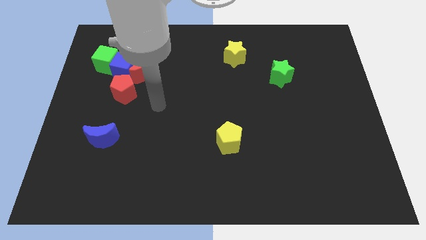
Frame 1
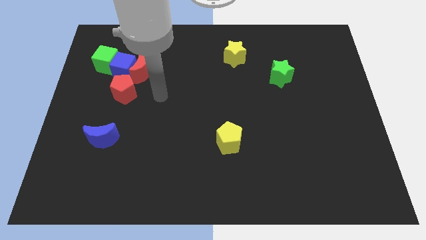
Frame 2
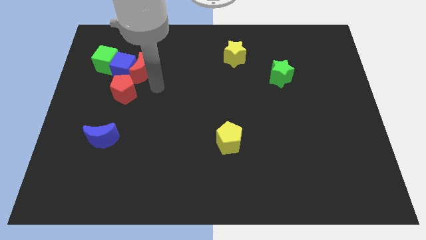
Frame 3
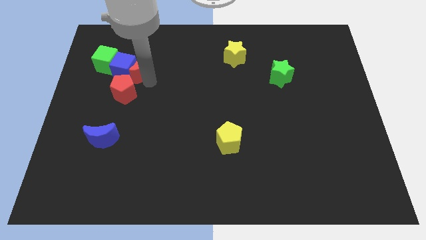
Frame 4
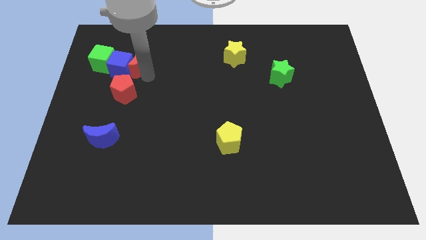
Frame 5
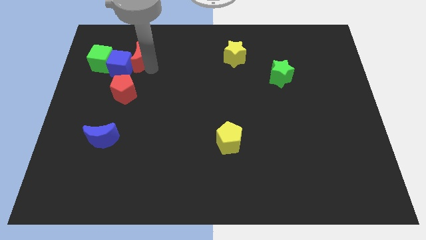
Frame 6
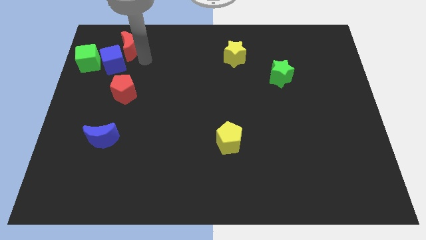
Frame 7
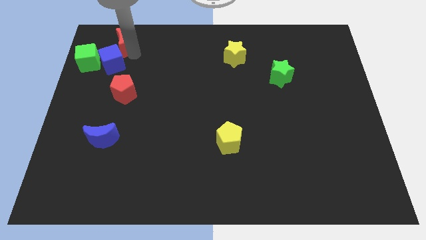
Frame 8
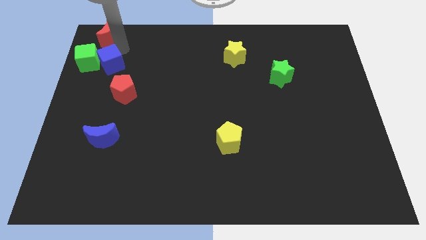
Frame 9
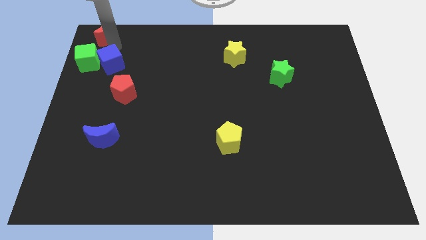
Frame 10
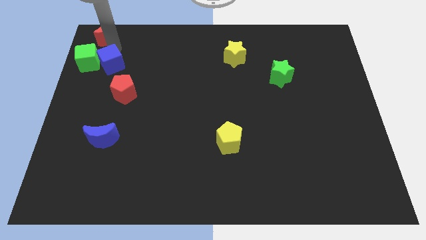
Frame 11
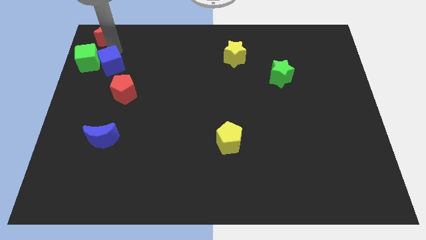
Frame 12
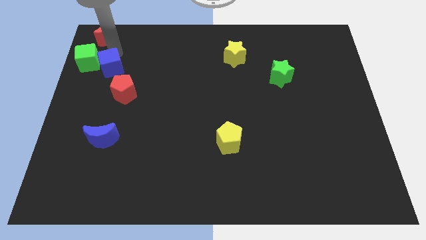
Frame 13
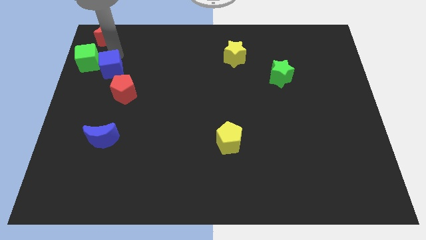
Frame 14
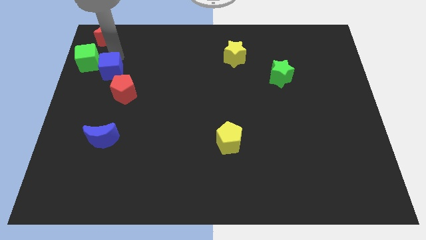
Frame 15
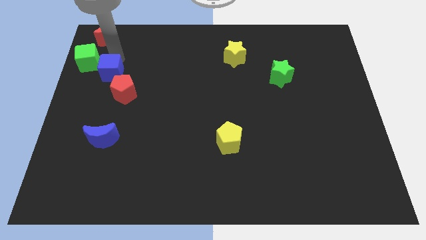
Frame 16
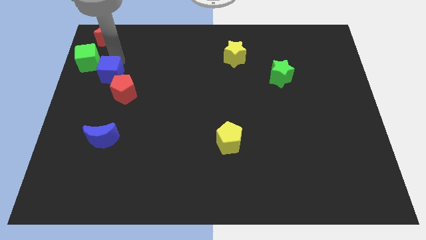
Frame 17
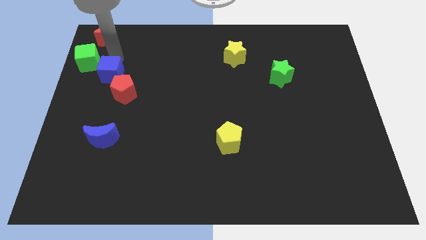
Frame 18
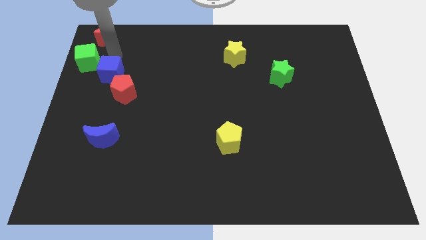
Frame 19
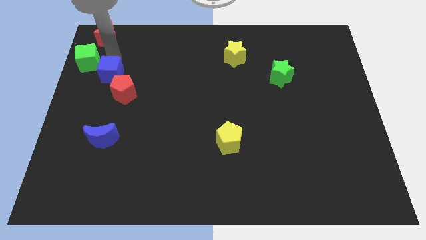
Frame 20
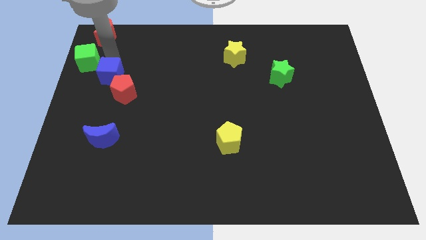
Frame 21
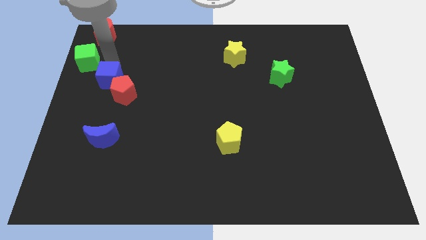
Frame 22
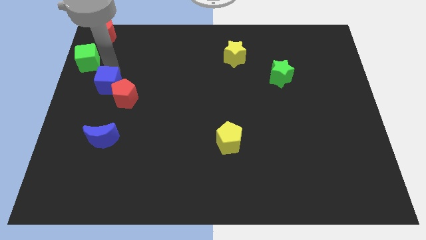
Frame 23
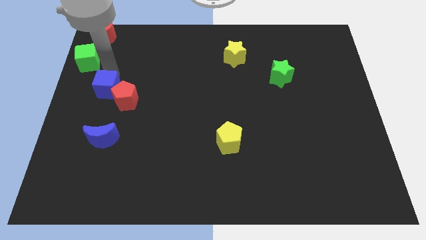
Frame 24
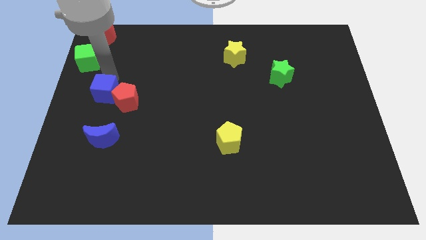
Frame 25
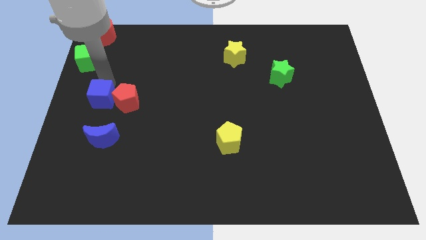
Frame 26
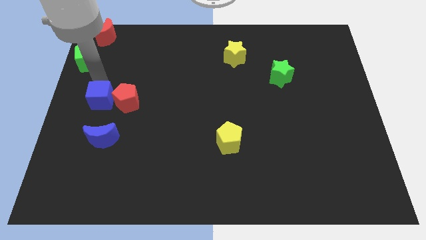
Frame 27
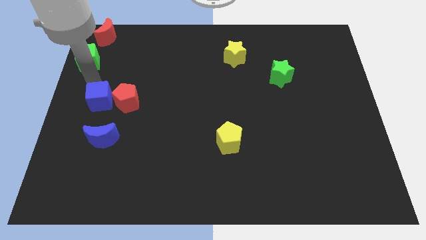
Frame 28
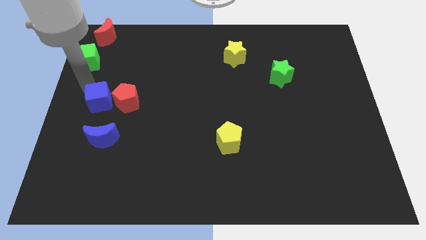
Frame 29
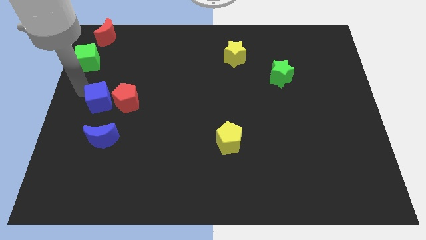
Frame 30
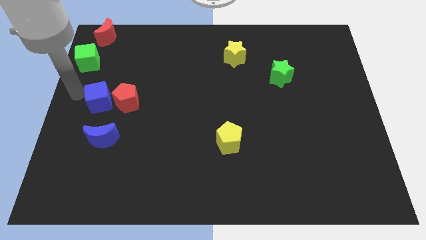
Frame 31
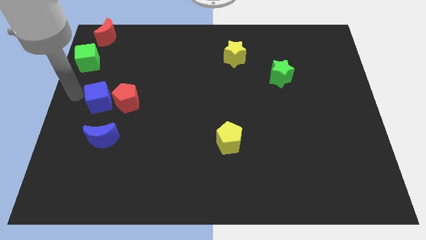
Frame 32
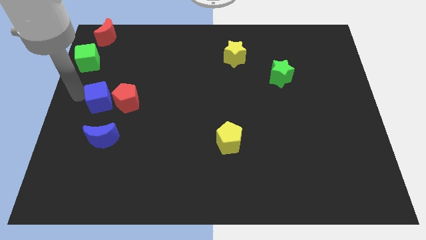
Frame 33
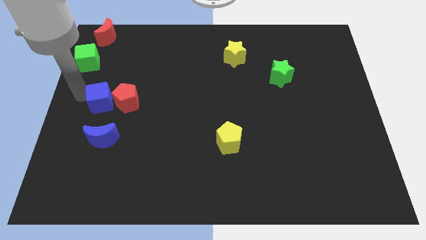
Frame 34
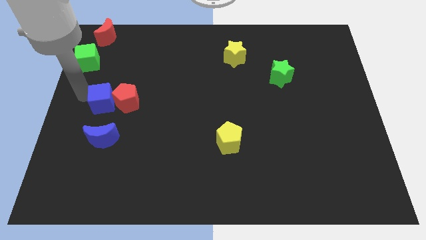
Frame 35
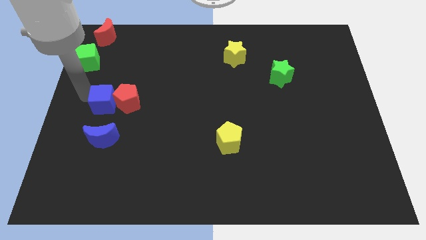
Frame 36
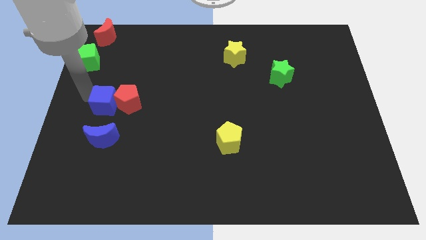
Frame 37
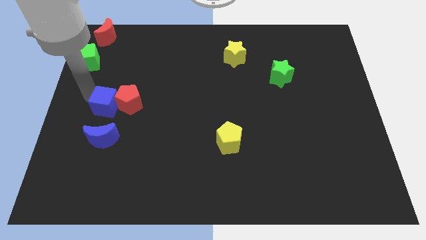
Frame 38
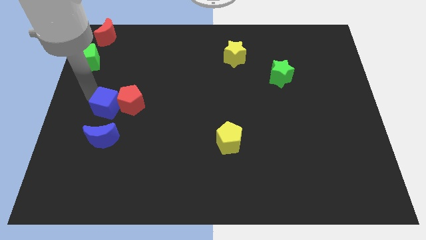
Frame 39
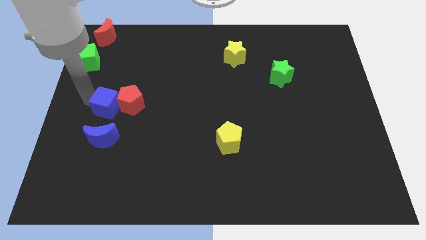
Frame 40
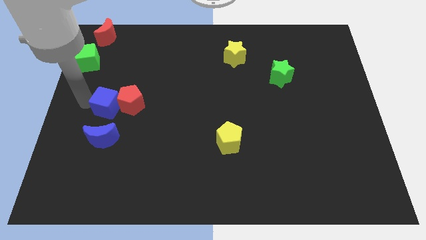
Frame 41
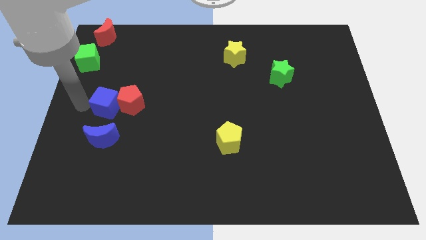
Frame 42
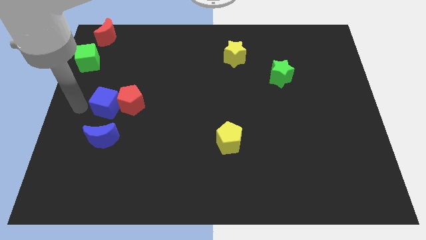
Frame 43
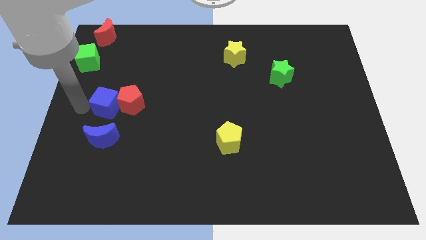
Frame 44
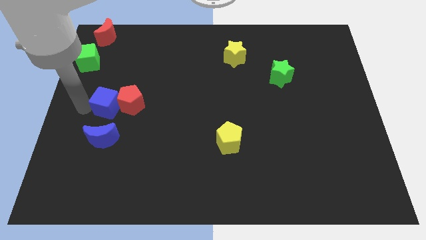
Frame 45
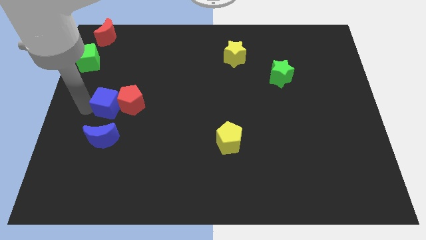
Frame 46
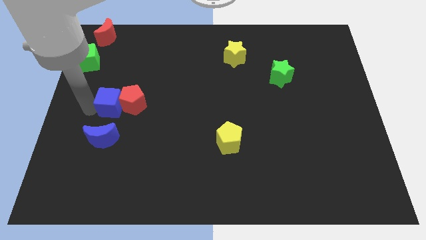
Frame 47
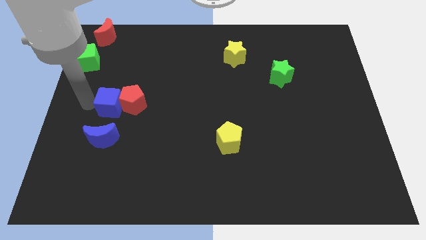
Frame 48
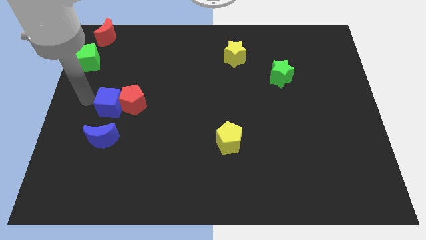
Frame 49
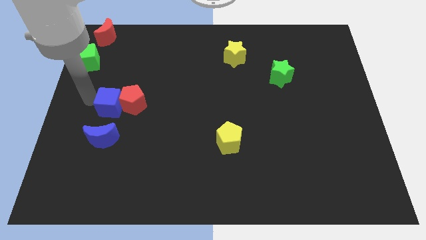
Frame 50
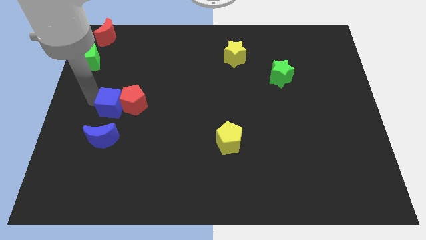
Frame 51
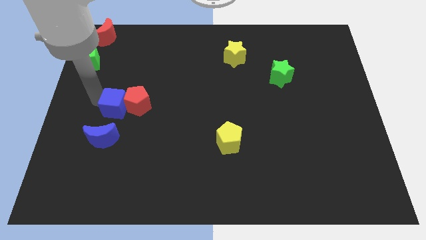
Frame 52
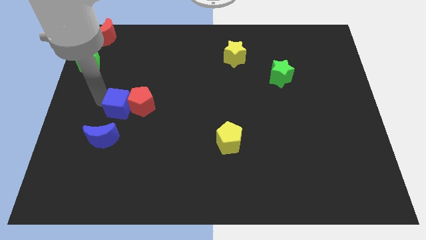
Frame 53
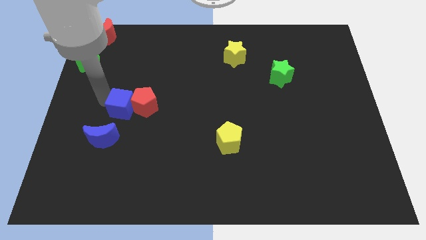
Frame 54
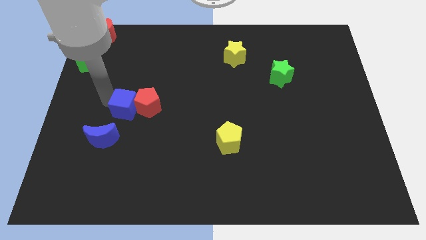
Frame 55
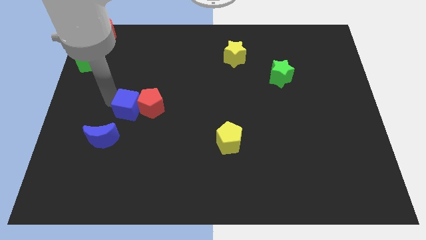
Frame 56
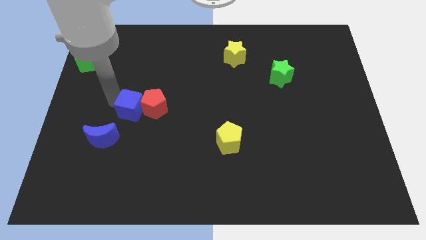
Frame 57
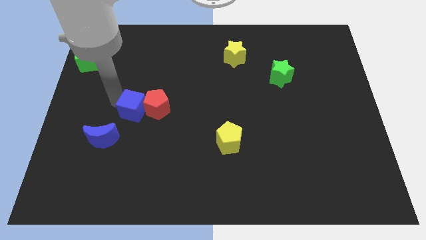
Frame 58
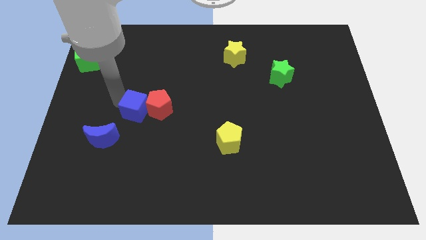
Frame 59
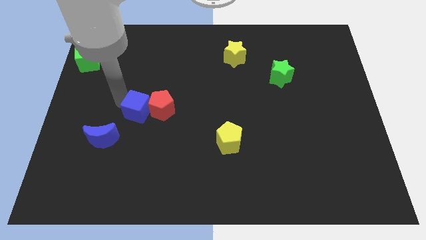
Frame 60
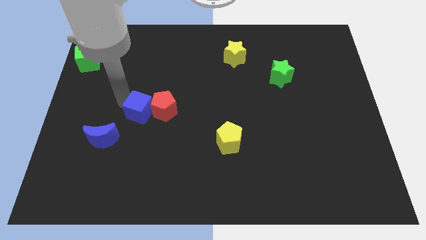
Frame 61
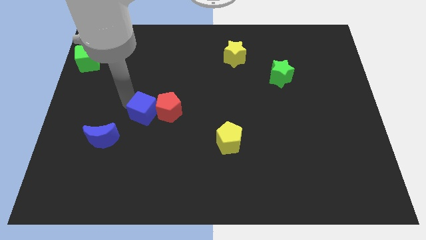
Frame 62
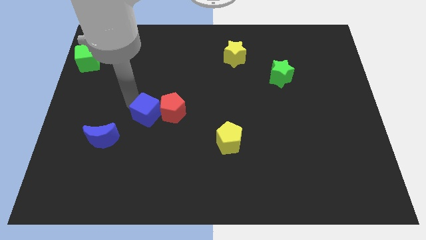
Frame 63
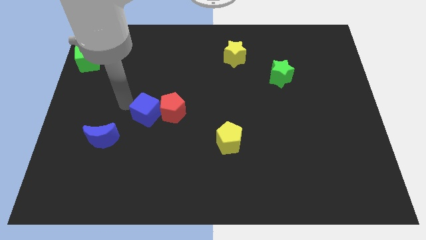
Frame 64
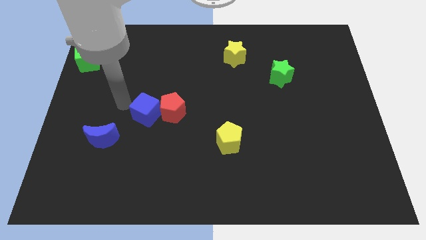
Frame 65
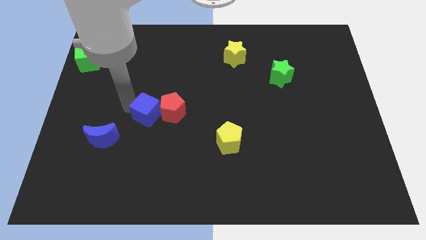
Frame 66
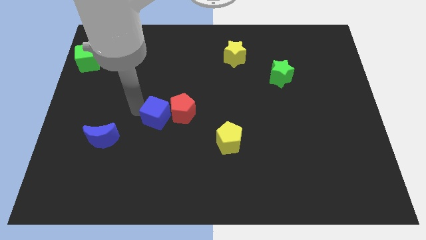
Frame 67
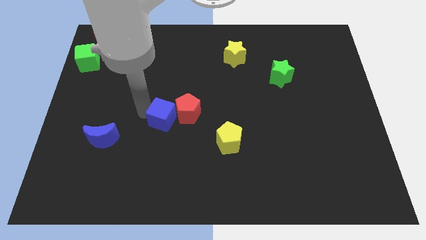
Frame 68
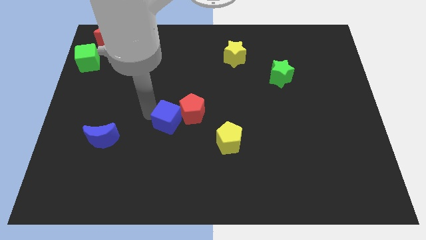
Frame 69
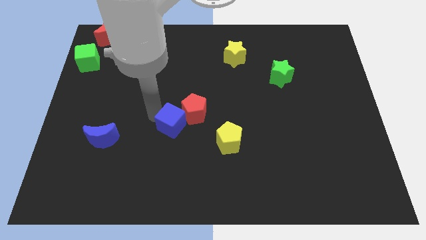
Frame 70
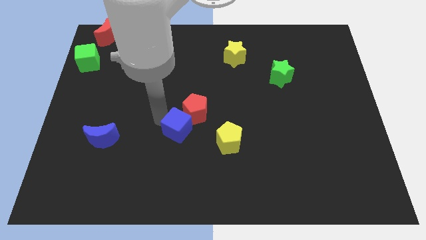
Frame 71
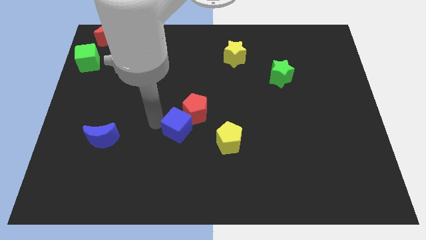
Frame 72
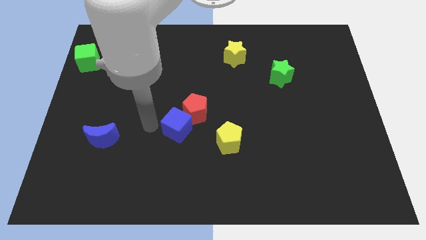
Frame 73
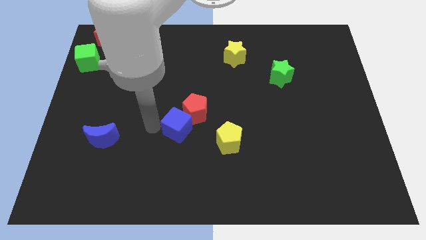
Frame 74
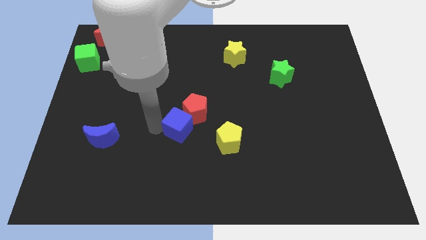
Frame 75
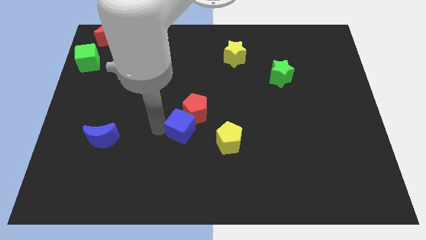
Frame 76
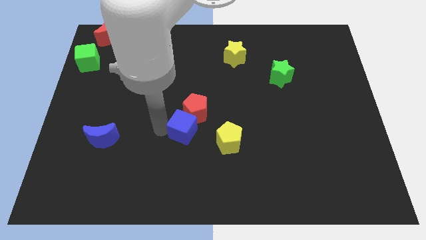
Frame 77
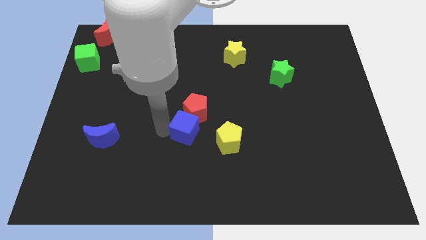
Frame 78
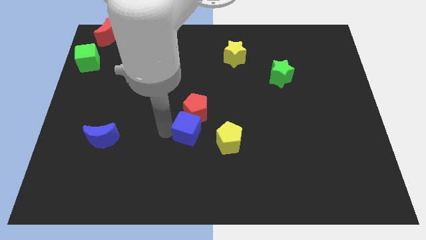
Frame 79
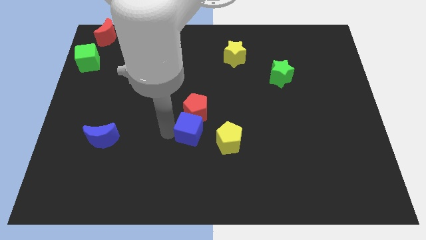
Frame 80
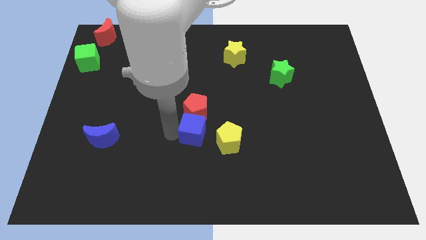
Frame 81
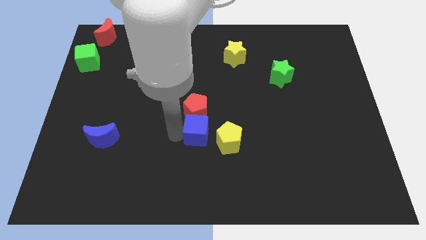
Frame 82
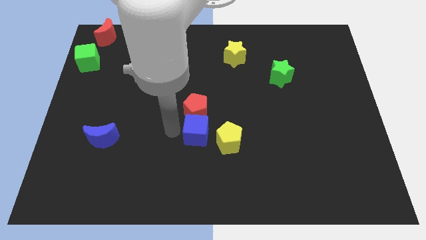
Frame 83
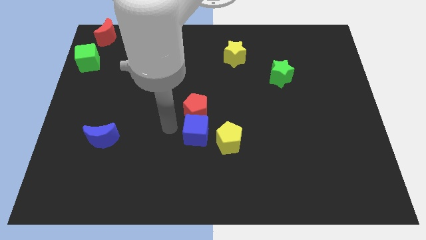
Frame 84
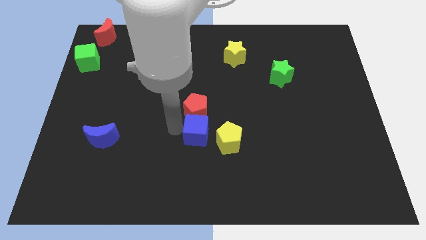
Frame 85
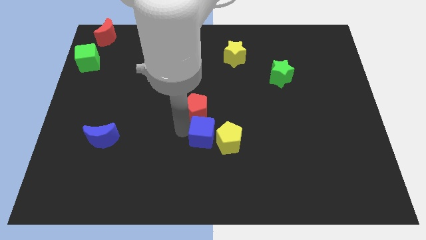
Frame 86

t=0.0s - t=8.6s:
push the blue cube to the yellow pentagon
